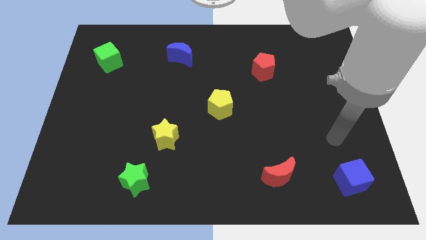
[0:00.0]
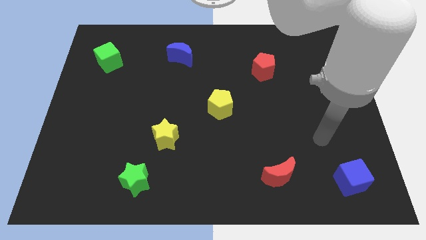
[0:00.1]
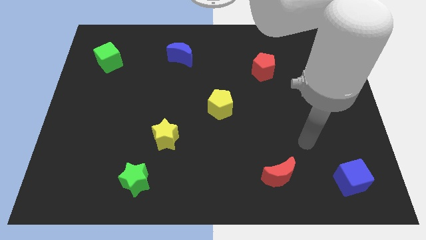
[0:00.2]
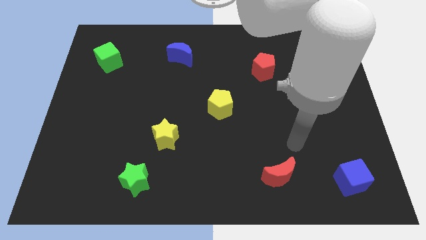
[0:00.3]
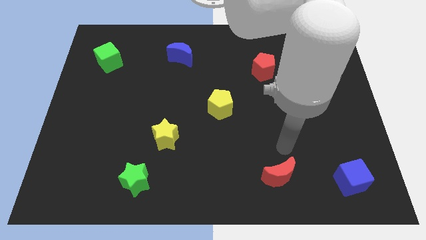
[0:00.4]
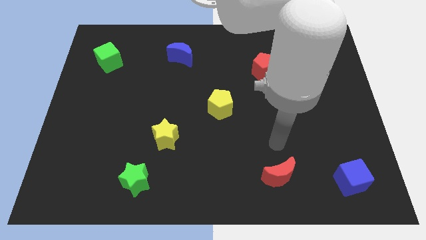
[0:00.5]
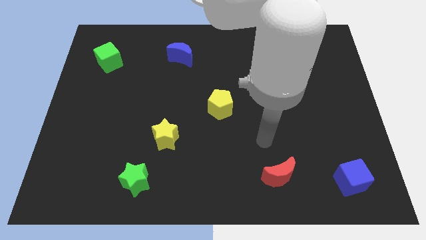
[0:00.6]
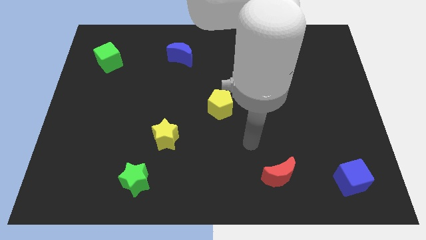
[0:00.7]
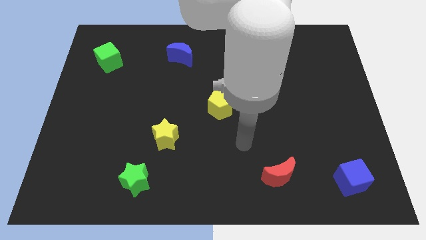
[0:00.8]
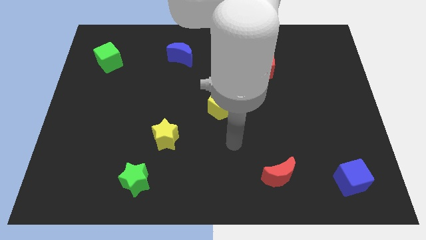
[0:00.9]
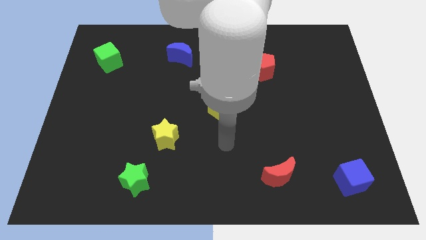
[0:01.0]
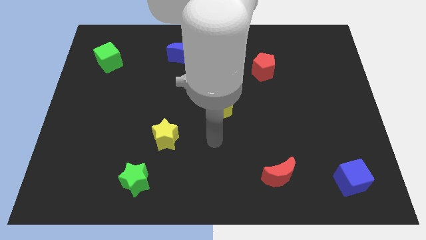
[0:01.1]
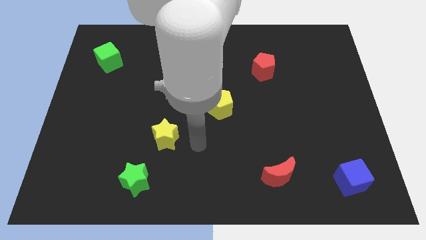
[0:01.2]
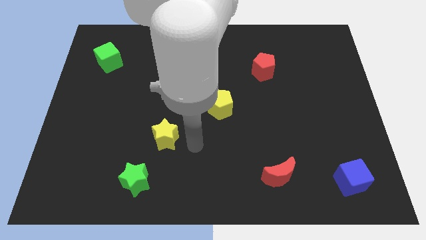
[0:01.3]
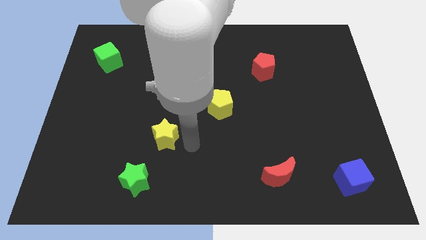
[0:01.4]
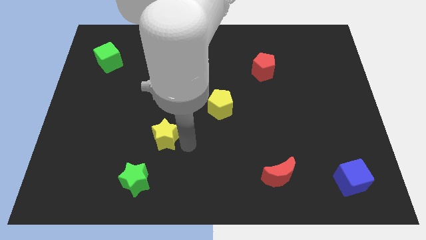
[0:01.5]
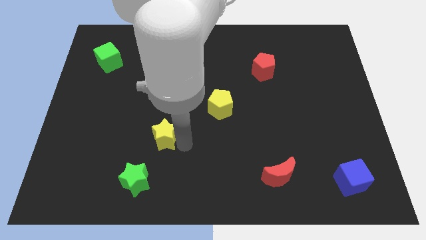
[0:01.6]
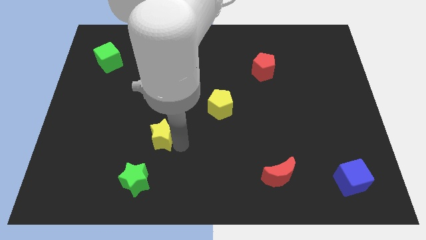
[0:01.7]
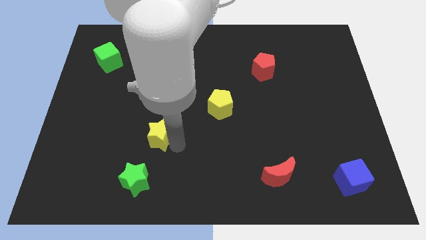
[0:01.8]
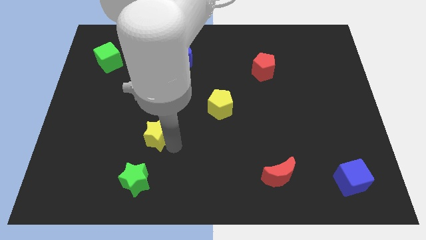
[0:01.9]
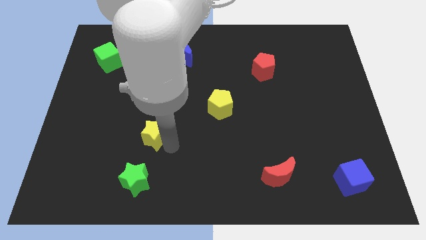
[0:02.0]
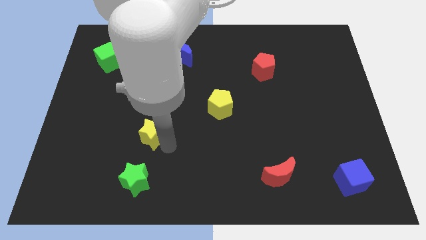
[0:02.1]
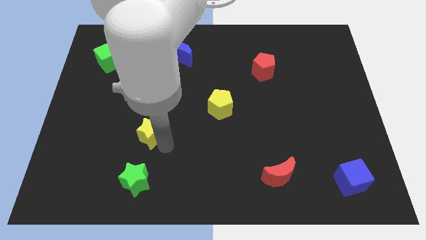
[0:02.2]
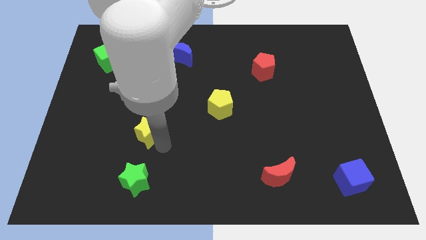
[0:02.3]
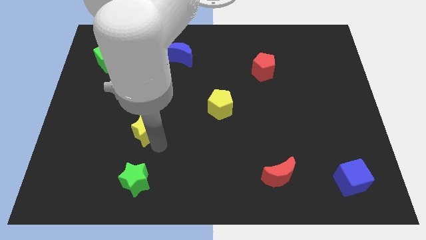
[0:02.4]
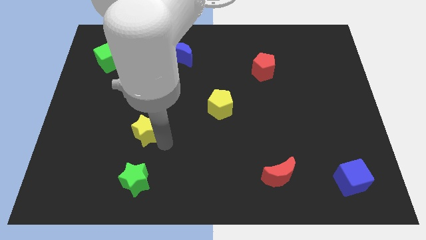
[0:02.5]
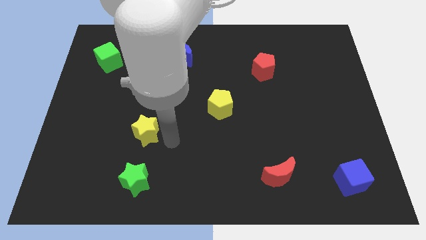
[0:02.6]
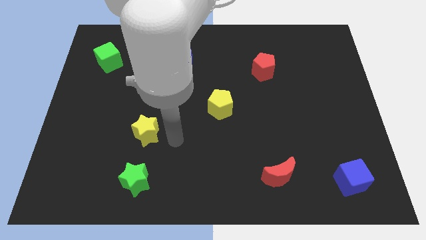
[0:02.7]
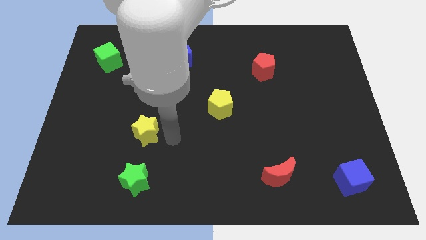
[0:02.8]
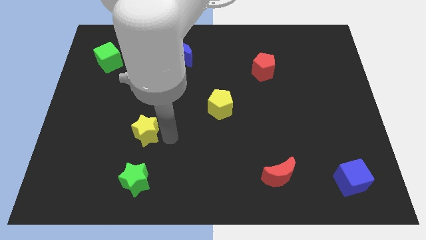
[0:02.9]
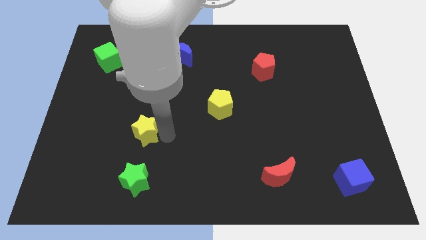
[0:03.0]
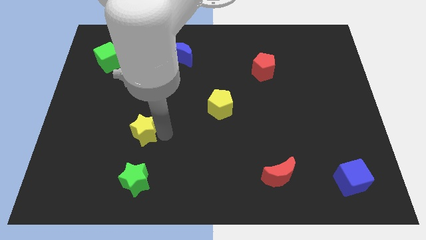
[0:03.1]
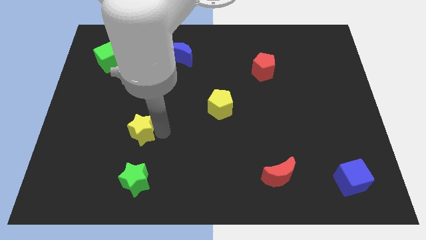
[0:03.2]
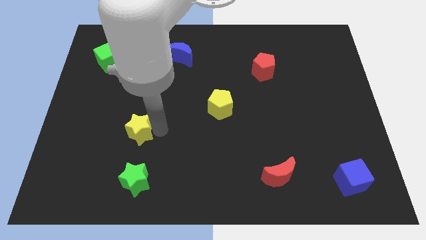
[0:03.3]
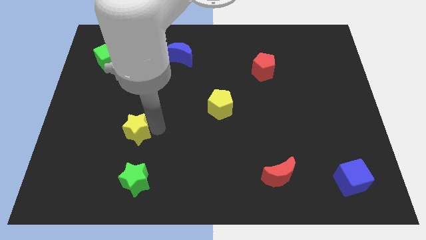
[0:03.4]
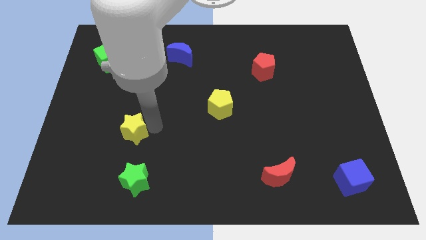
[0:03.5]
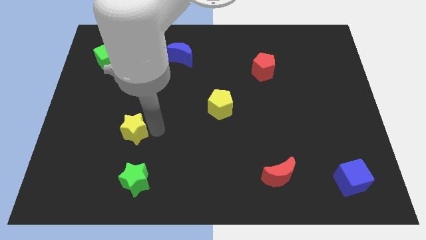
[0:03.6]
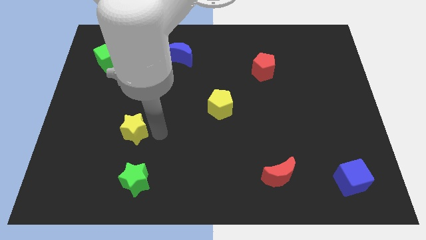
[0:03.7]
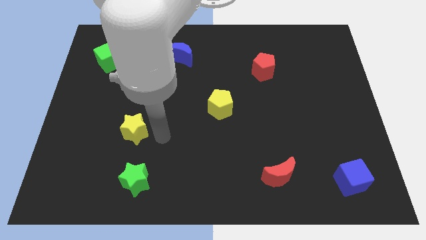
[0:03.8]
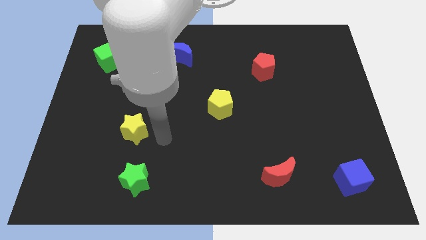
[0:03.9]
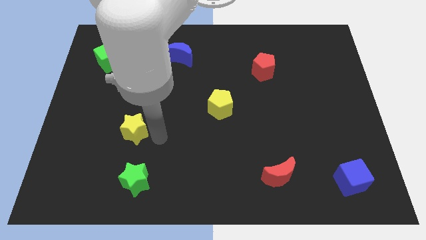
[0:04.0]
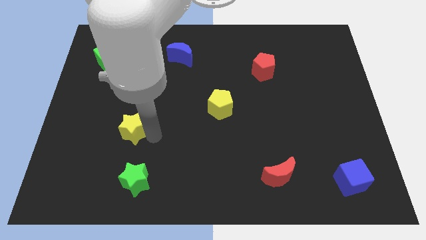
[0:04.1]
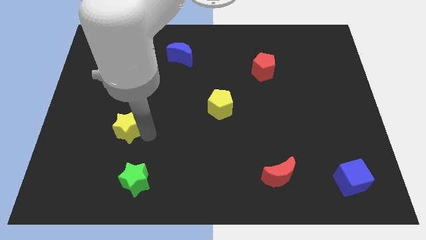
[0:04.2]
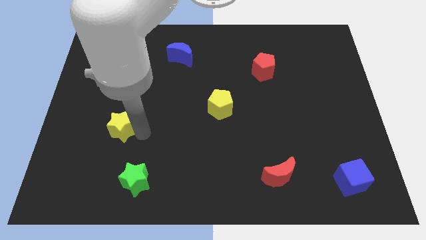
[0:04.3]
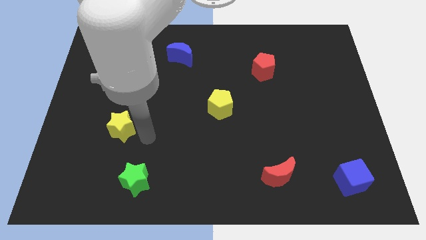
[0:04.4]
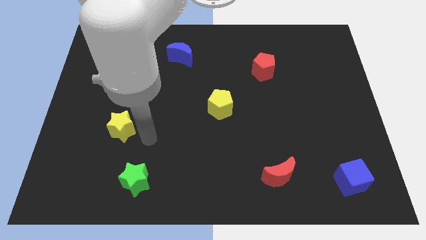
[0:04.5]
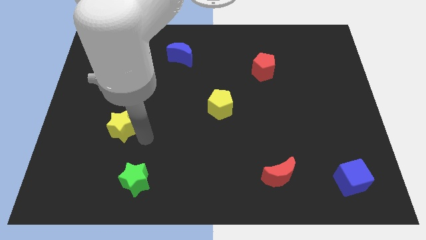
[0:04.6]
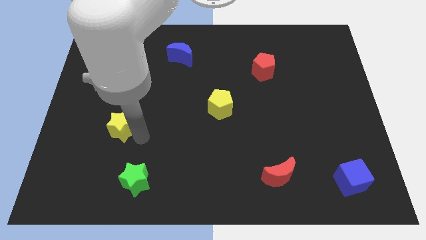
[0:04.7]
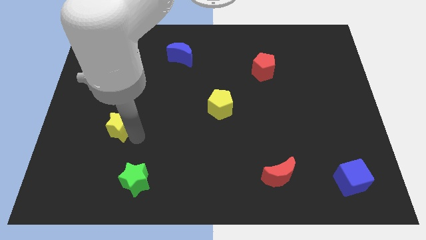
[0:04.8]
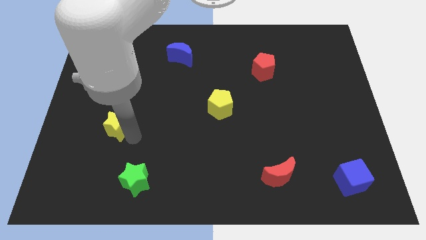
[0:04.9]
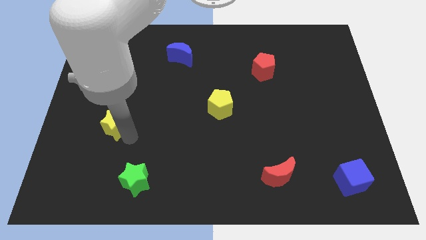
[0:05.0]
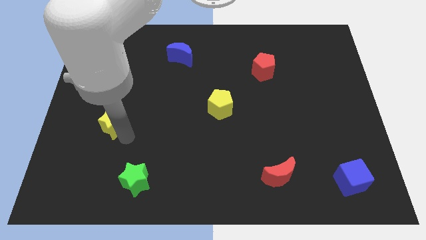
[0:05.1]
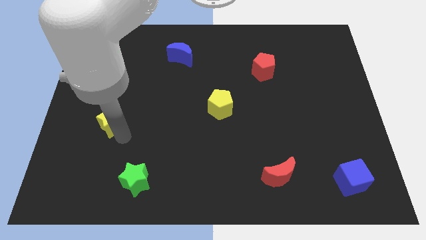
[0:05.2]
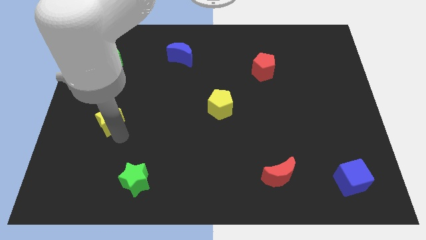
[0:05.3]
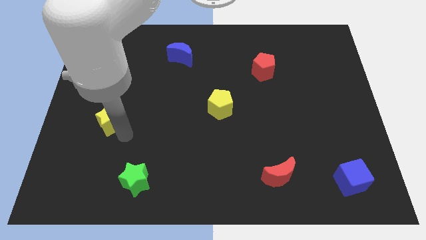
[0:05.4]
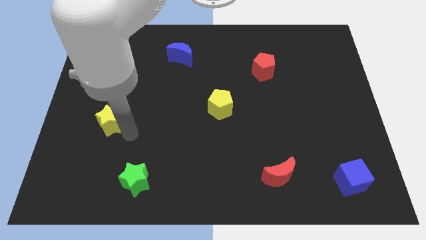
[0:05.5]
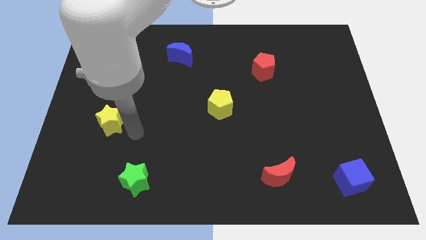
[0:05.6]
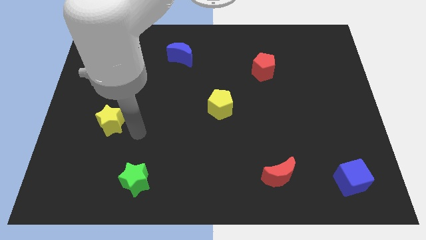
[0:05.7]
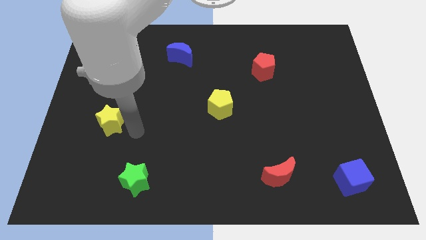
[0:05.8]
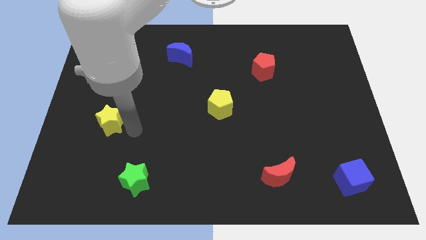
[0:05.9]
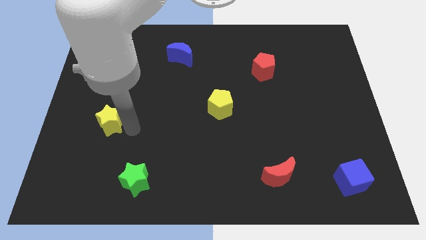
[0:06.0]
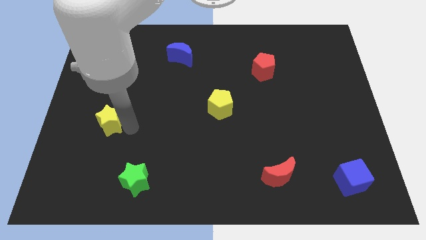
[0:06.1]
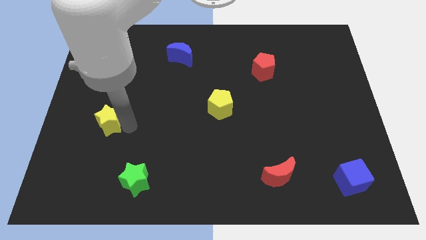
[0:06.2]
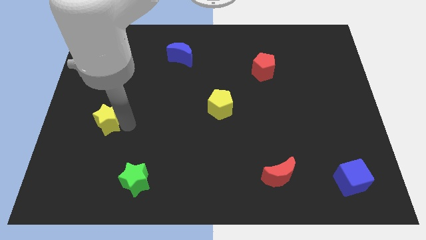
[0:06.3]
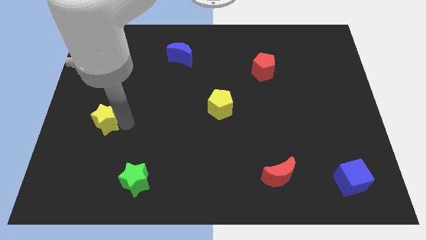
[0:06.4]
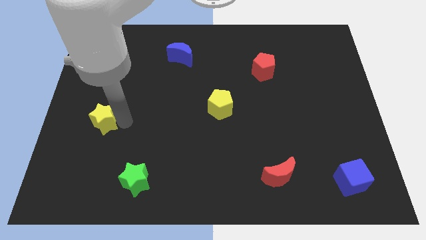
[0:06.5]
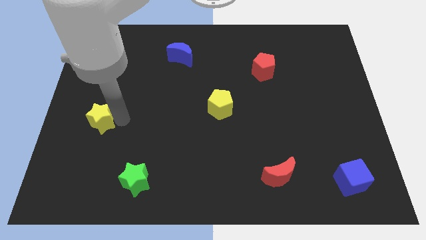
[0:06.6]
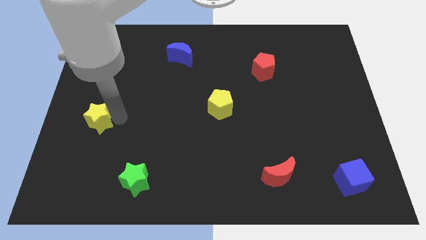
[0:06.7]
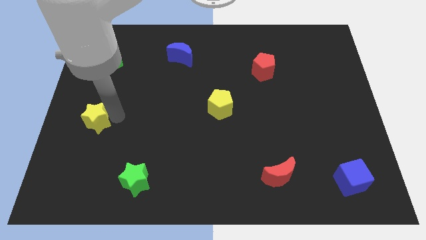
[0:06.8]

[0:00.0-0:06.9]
move the yellow star to the left side of the board

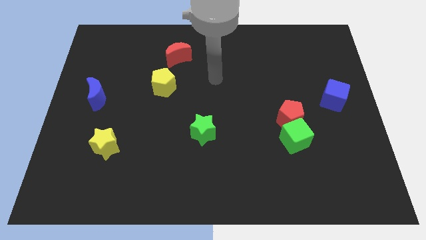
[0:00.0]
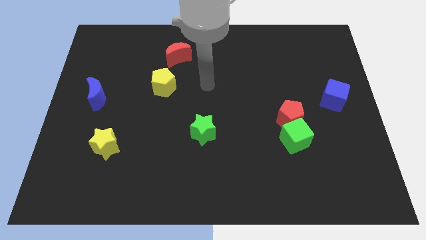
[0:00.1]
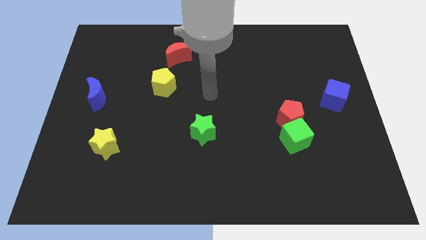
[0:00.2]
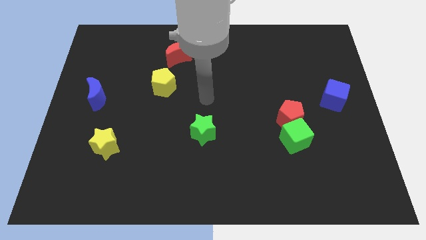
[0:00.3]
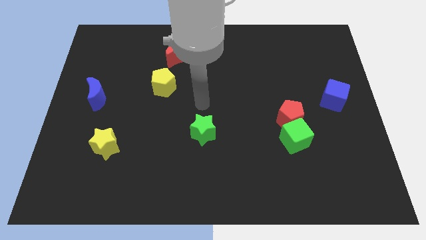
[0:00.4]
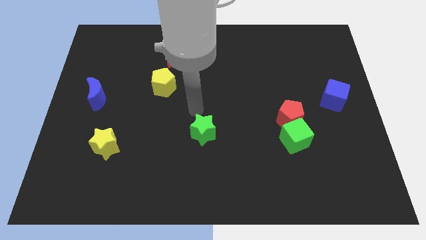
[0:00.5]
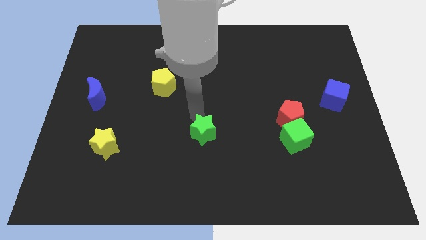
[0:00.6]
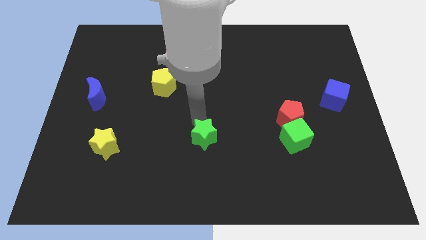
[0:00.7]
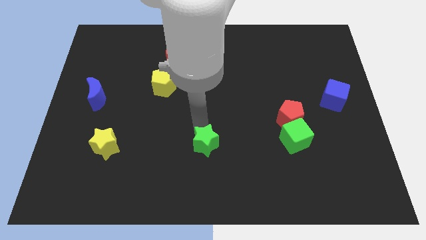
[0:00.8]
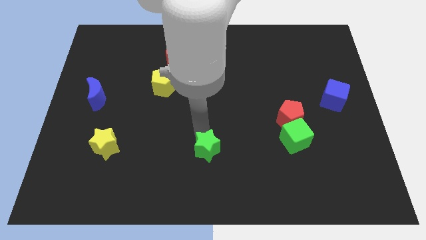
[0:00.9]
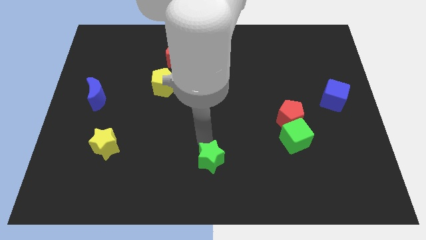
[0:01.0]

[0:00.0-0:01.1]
move the green star to the bottom

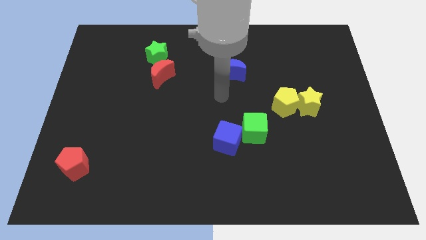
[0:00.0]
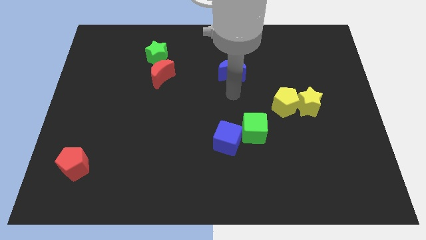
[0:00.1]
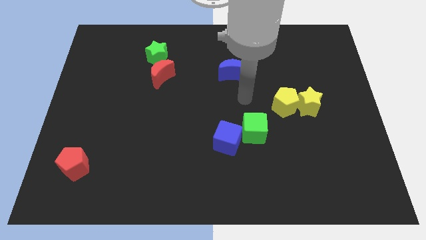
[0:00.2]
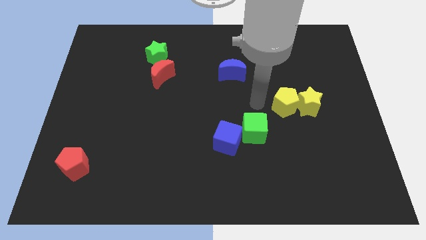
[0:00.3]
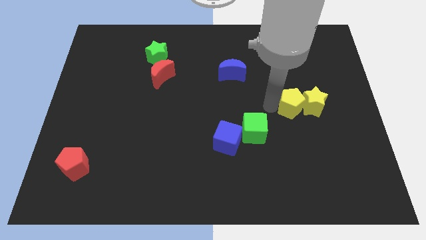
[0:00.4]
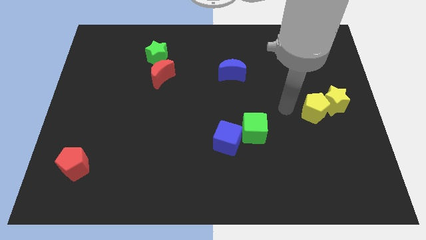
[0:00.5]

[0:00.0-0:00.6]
push the yellow star to the right side
